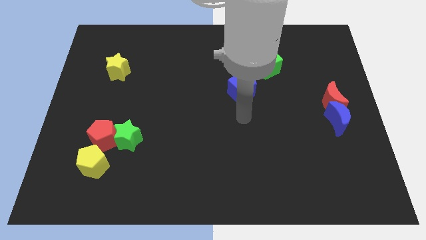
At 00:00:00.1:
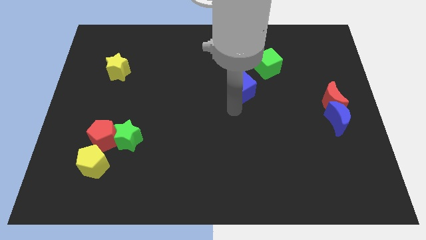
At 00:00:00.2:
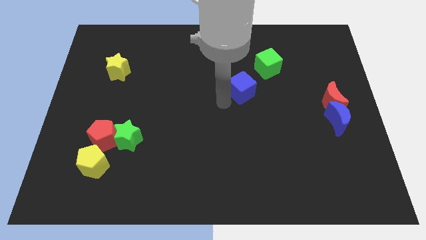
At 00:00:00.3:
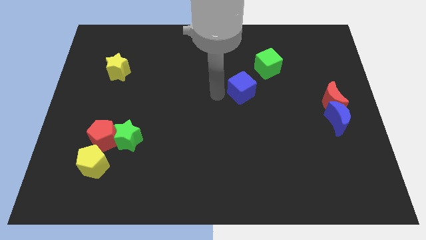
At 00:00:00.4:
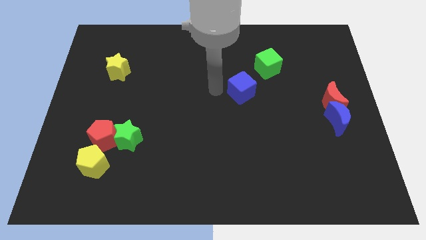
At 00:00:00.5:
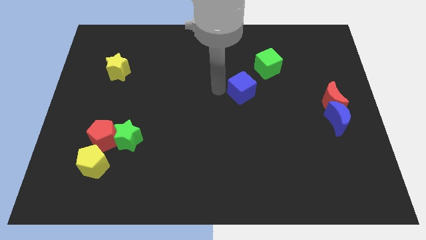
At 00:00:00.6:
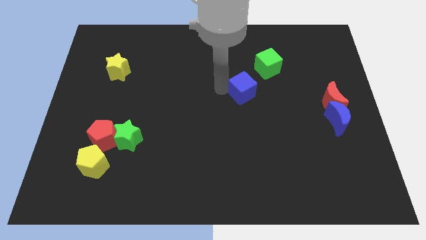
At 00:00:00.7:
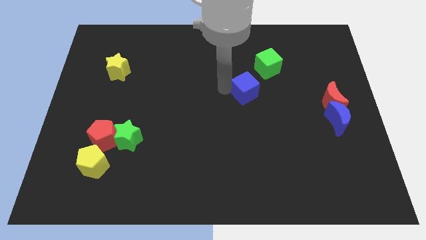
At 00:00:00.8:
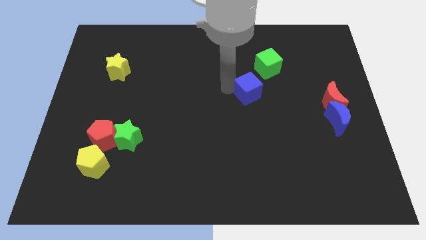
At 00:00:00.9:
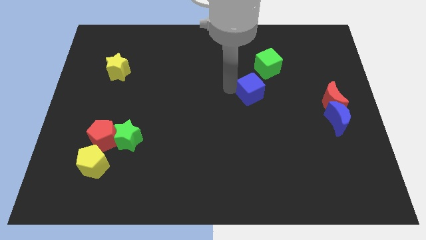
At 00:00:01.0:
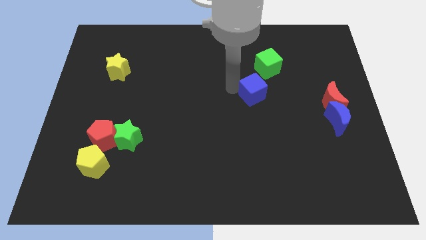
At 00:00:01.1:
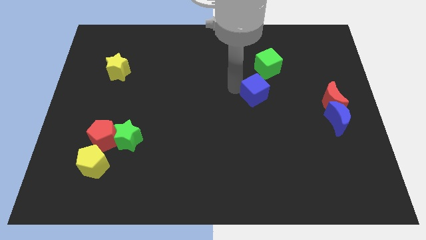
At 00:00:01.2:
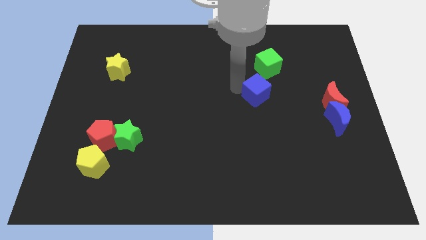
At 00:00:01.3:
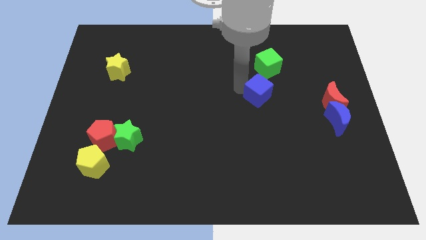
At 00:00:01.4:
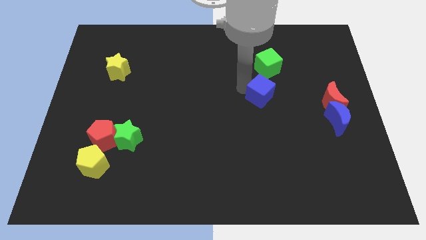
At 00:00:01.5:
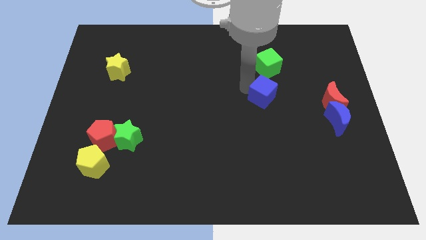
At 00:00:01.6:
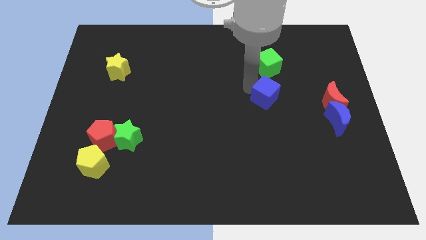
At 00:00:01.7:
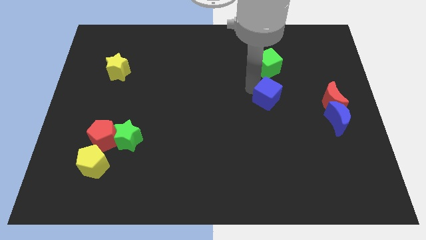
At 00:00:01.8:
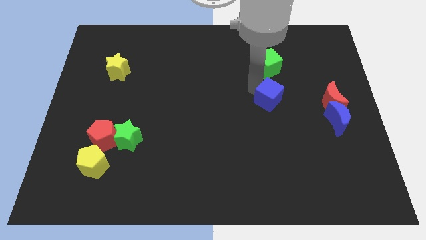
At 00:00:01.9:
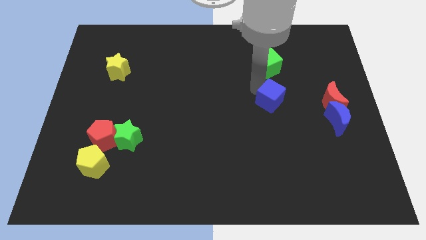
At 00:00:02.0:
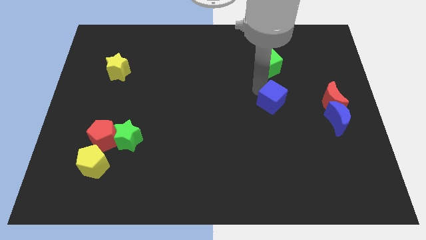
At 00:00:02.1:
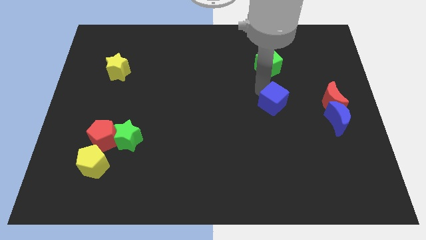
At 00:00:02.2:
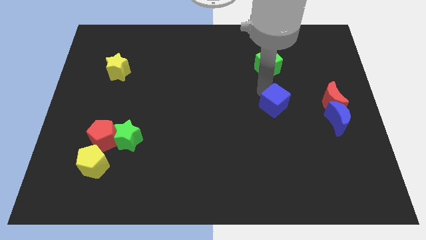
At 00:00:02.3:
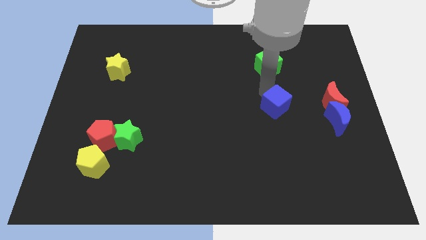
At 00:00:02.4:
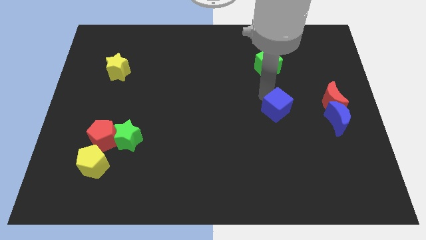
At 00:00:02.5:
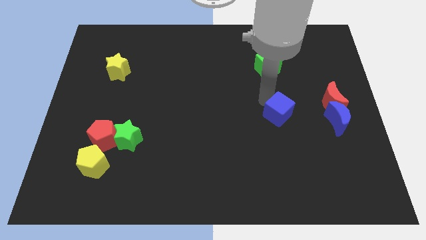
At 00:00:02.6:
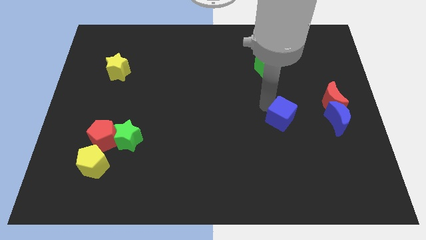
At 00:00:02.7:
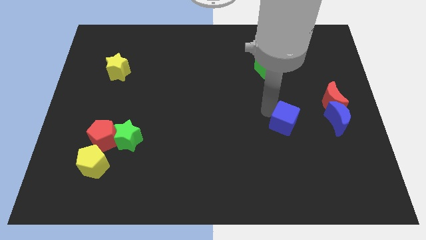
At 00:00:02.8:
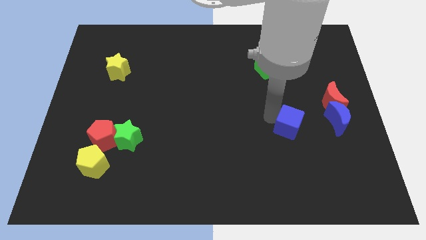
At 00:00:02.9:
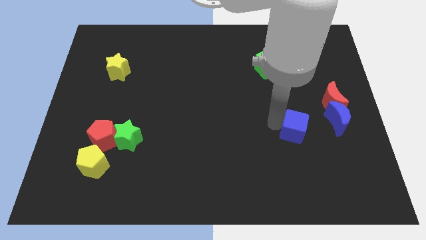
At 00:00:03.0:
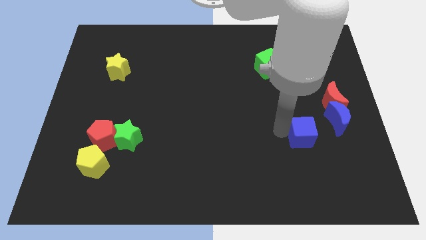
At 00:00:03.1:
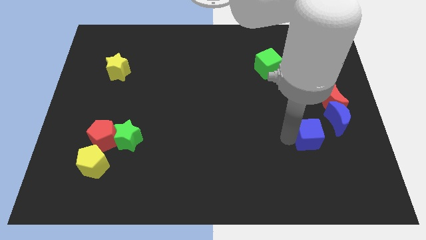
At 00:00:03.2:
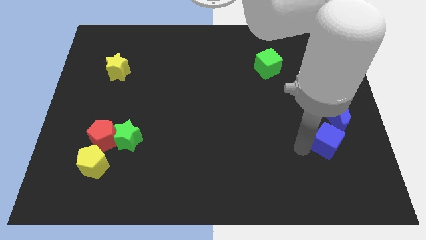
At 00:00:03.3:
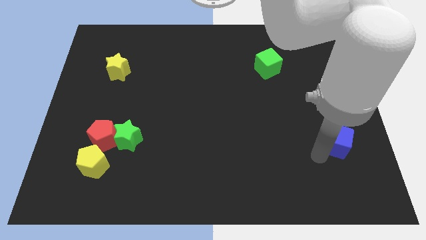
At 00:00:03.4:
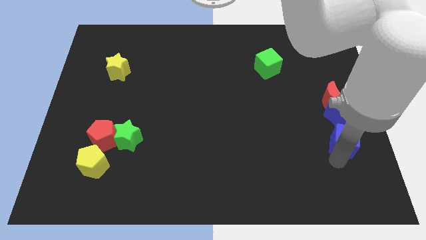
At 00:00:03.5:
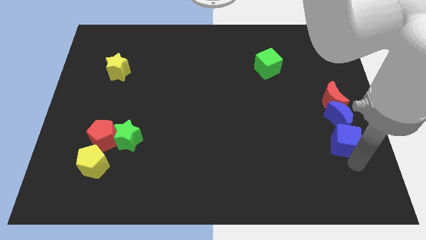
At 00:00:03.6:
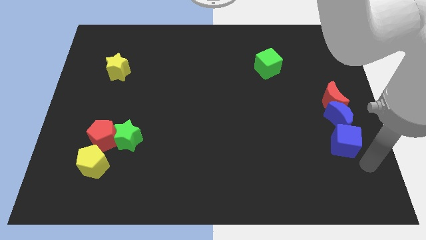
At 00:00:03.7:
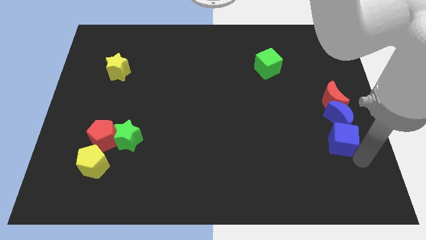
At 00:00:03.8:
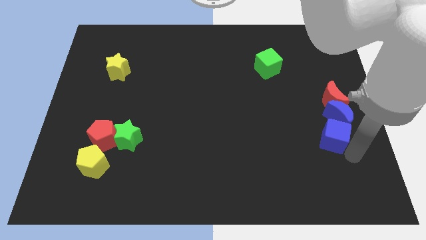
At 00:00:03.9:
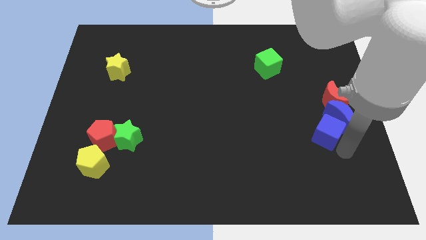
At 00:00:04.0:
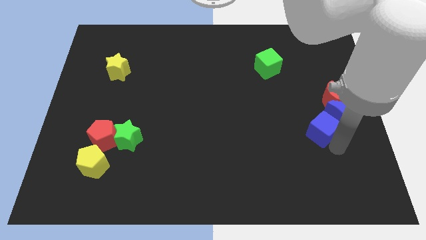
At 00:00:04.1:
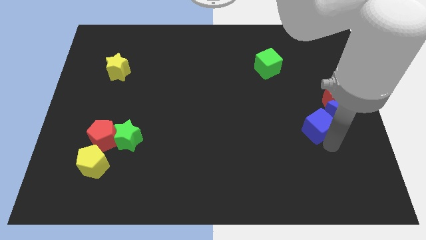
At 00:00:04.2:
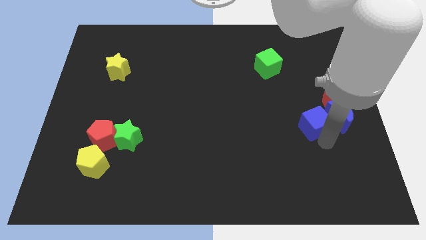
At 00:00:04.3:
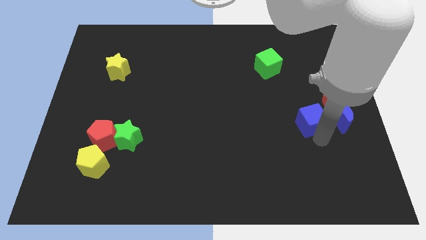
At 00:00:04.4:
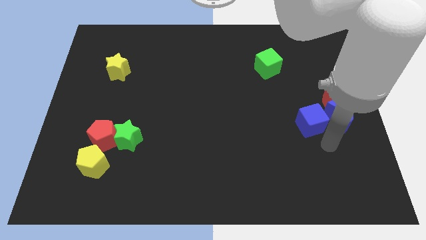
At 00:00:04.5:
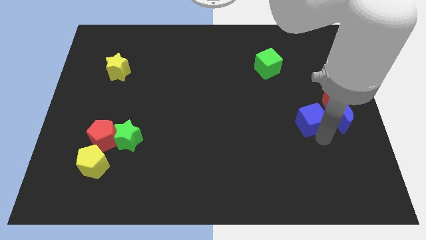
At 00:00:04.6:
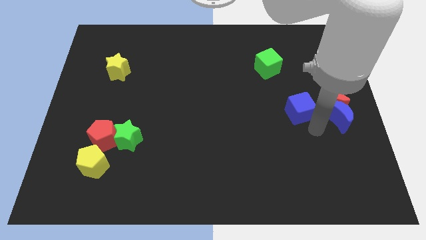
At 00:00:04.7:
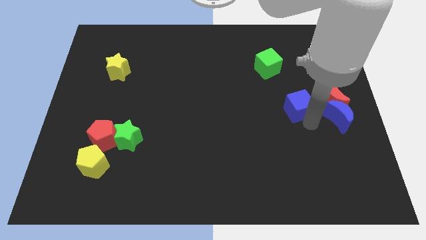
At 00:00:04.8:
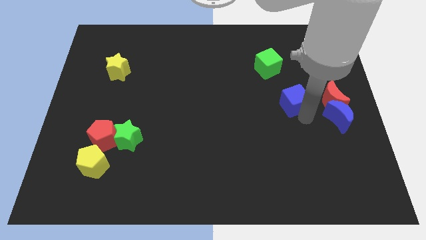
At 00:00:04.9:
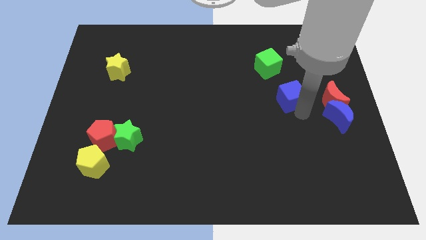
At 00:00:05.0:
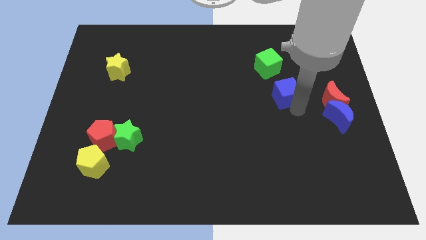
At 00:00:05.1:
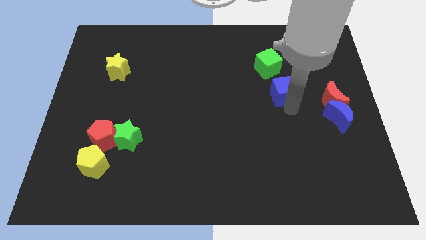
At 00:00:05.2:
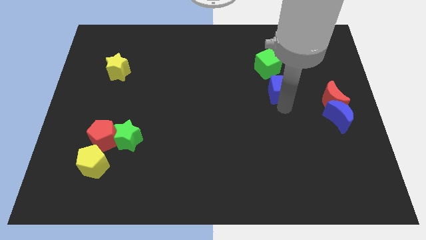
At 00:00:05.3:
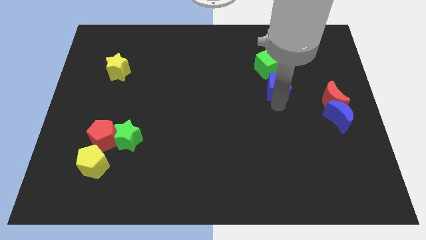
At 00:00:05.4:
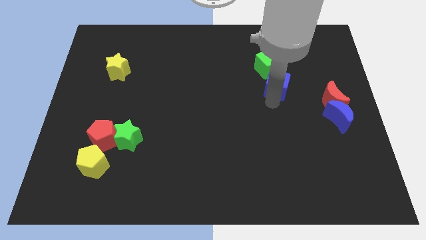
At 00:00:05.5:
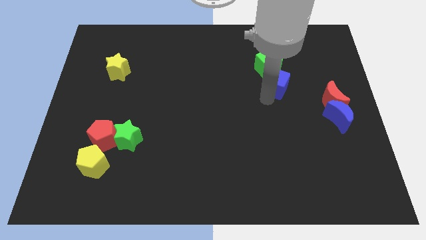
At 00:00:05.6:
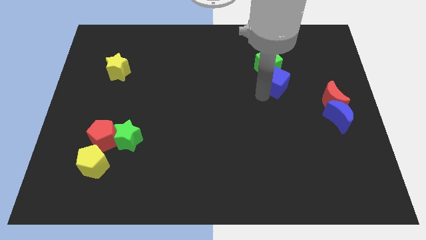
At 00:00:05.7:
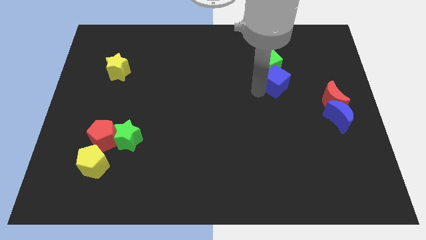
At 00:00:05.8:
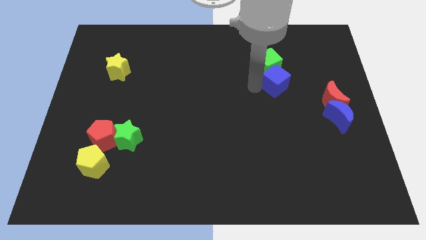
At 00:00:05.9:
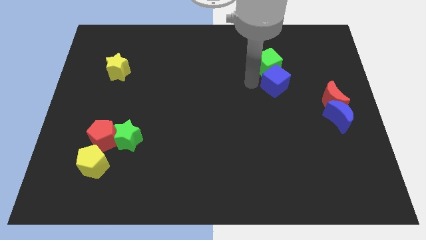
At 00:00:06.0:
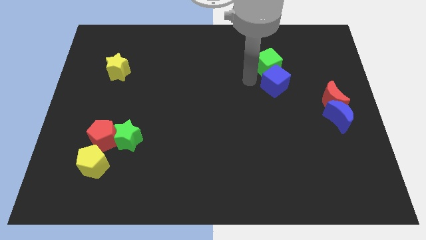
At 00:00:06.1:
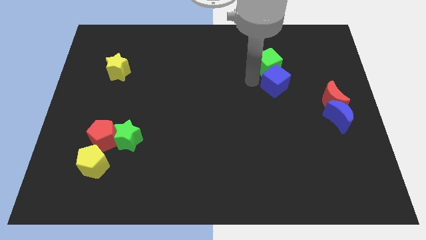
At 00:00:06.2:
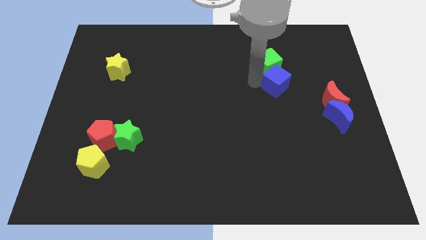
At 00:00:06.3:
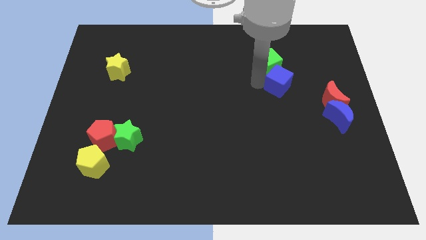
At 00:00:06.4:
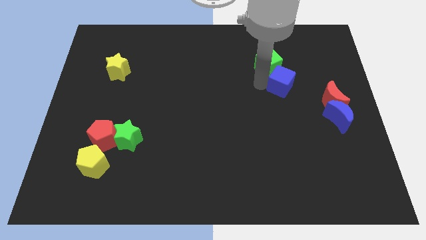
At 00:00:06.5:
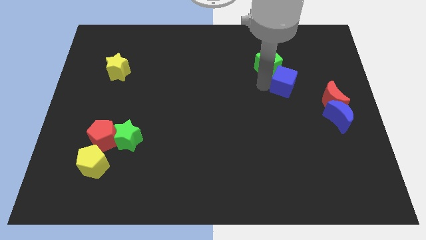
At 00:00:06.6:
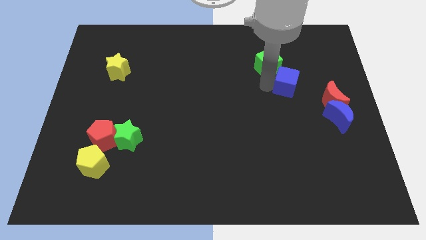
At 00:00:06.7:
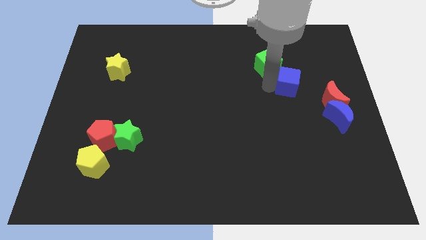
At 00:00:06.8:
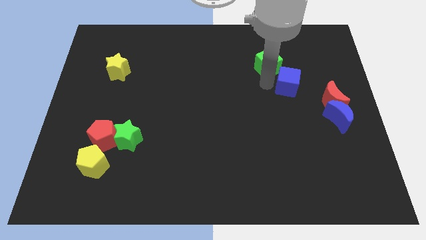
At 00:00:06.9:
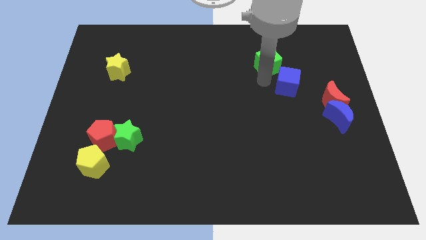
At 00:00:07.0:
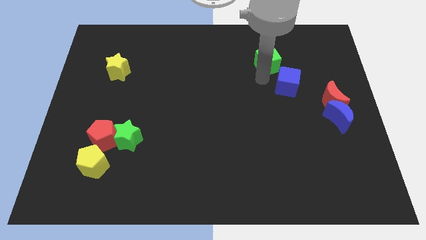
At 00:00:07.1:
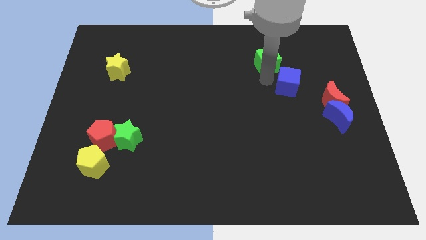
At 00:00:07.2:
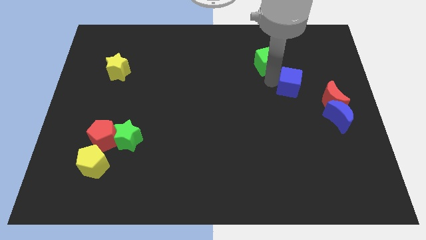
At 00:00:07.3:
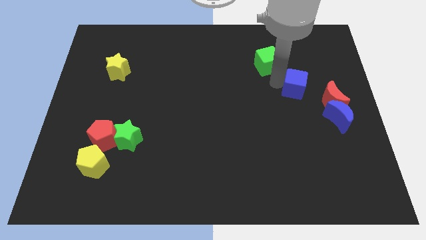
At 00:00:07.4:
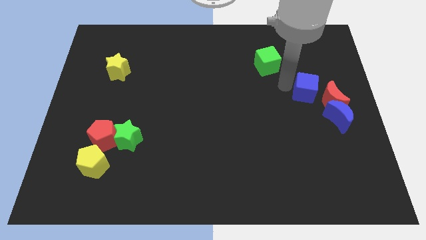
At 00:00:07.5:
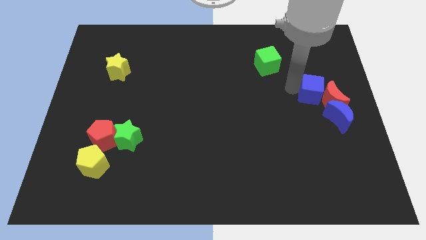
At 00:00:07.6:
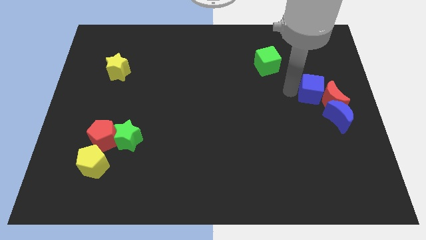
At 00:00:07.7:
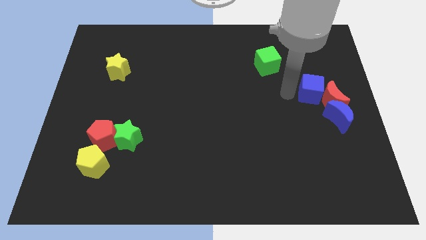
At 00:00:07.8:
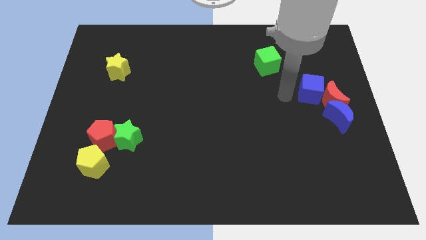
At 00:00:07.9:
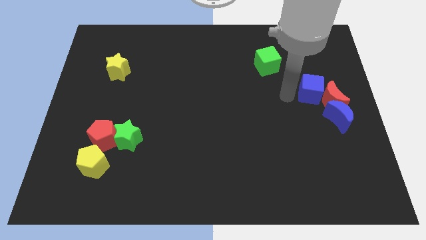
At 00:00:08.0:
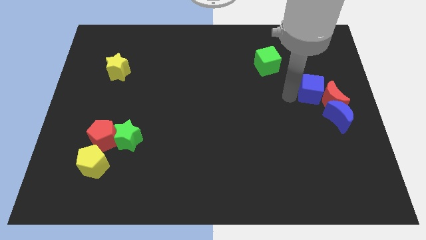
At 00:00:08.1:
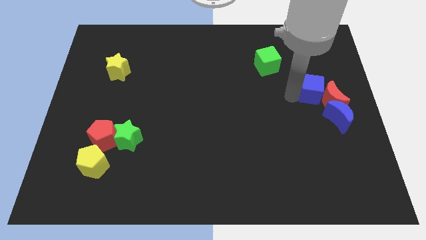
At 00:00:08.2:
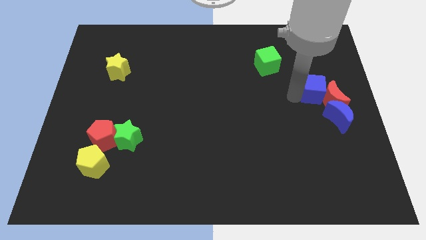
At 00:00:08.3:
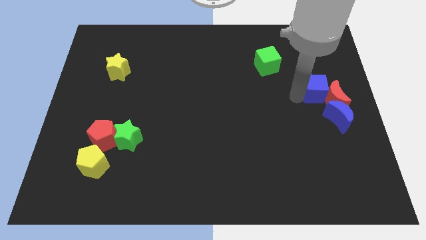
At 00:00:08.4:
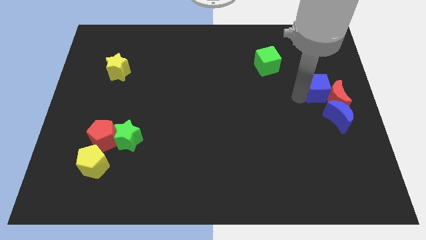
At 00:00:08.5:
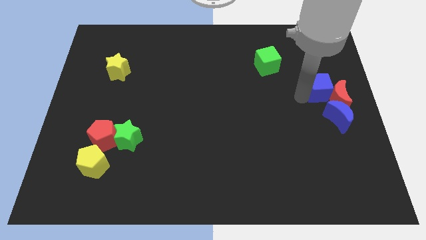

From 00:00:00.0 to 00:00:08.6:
put the blue cube to the right side of the board
